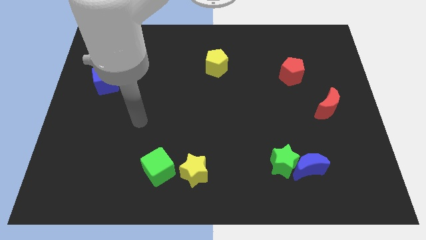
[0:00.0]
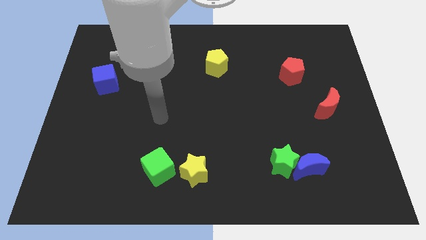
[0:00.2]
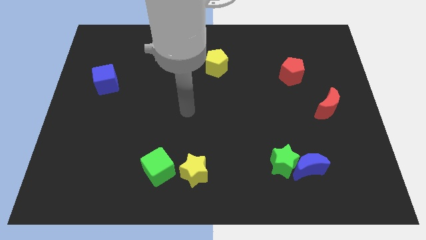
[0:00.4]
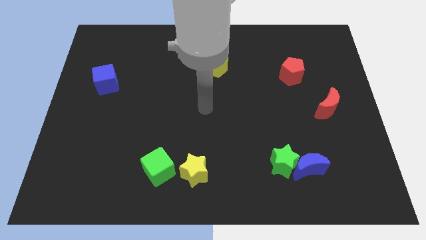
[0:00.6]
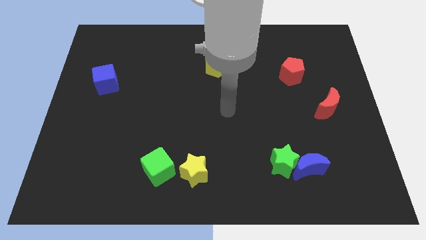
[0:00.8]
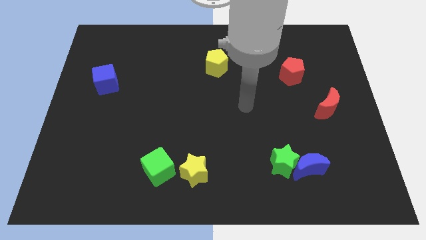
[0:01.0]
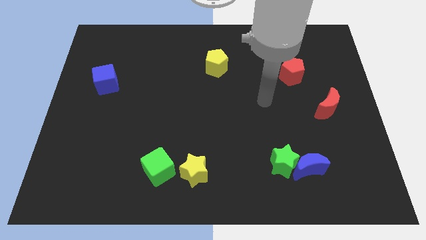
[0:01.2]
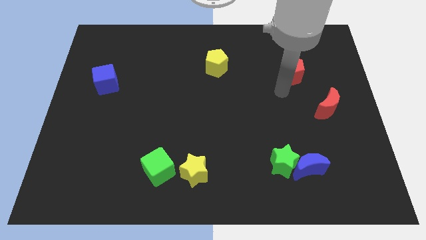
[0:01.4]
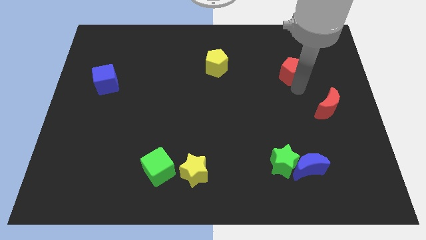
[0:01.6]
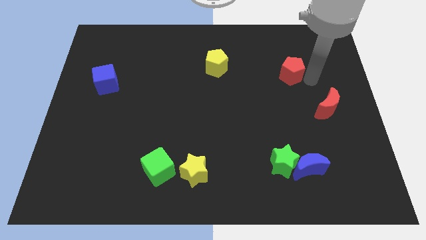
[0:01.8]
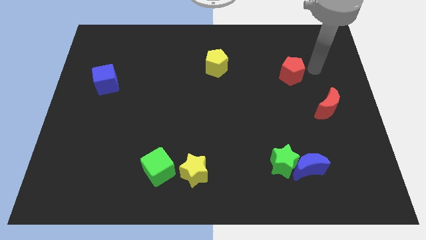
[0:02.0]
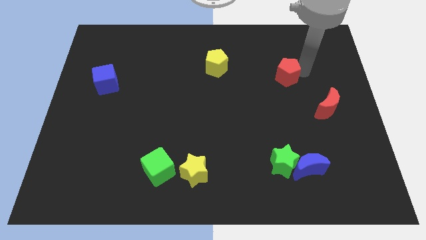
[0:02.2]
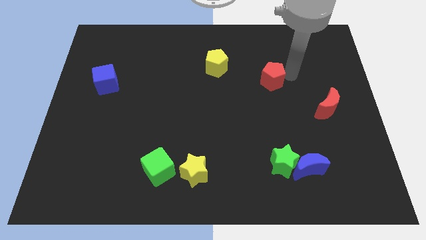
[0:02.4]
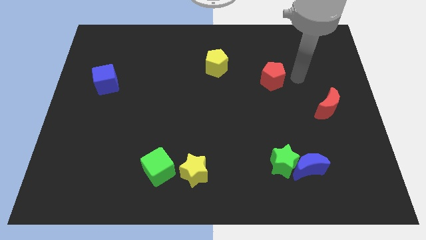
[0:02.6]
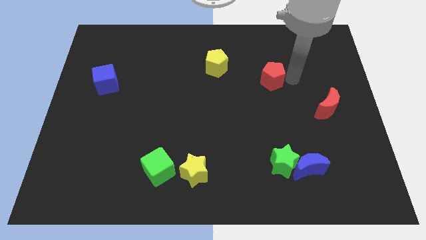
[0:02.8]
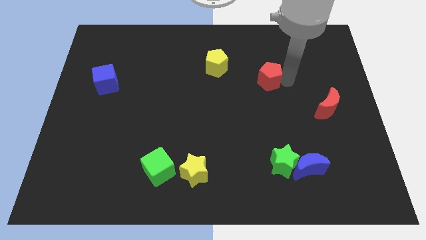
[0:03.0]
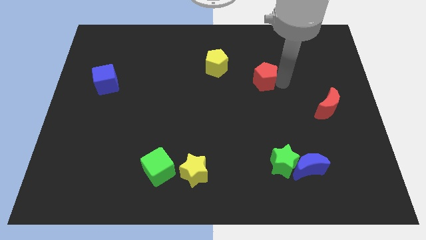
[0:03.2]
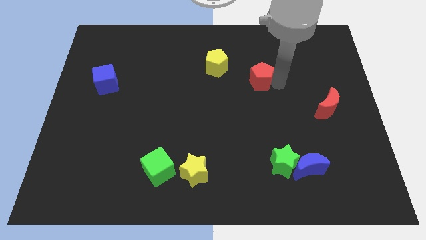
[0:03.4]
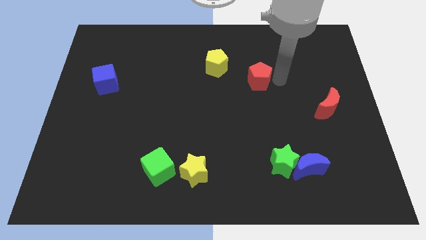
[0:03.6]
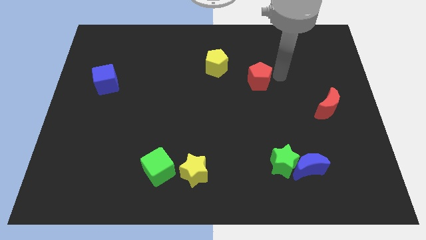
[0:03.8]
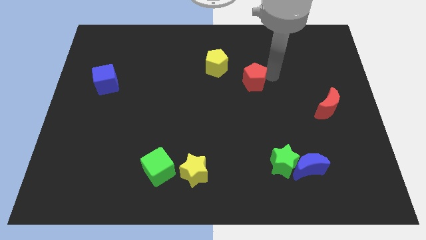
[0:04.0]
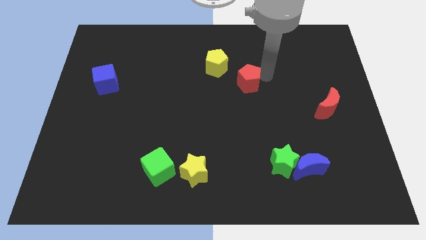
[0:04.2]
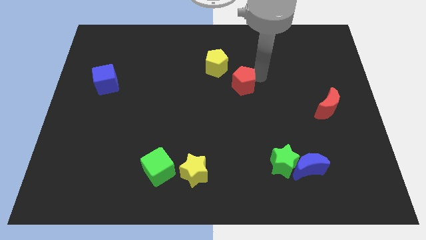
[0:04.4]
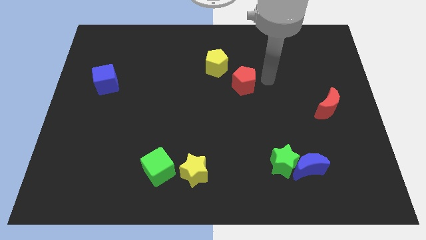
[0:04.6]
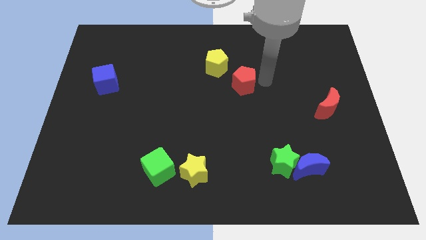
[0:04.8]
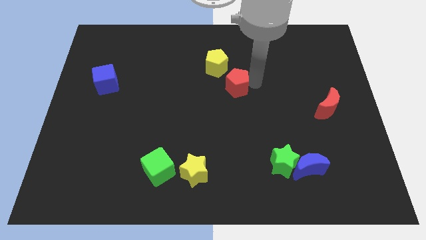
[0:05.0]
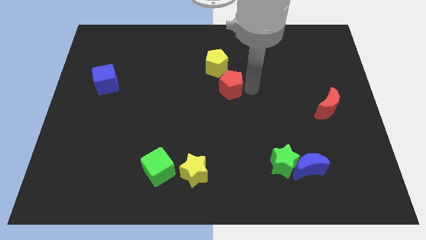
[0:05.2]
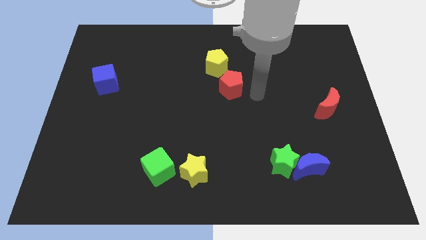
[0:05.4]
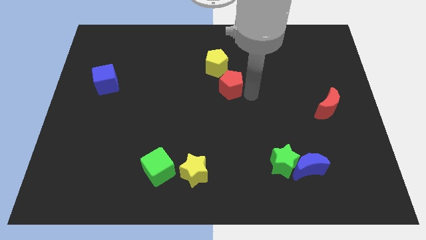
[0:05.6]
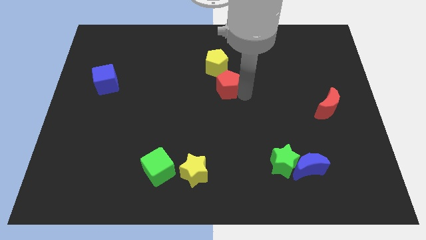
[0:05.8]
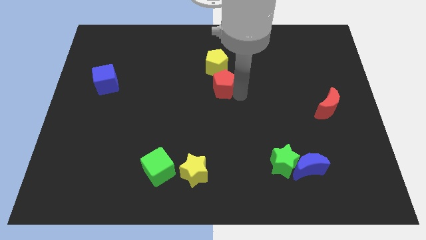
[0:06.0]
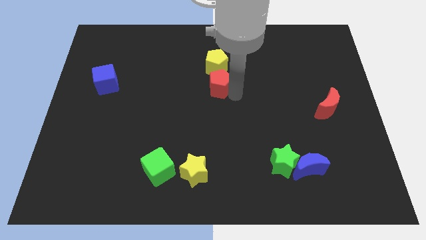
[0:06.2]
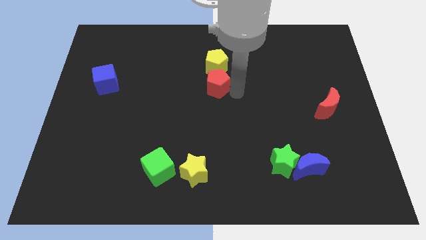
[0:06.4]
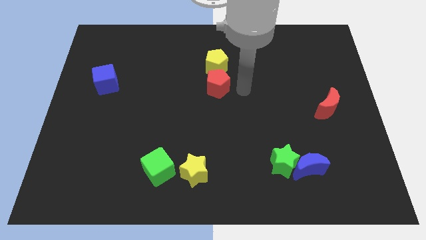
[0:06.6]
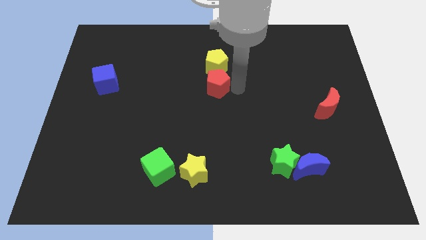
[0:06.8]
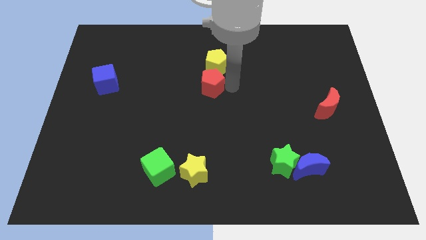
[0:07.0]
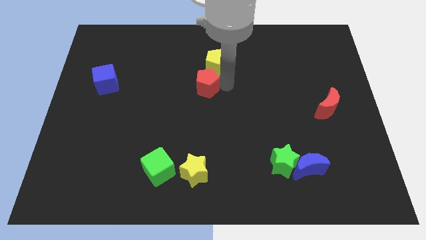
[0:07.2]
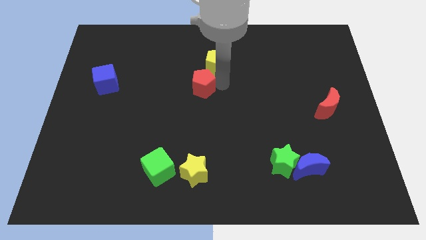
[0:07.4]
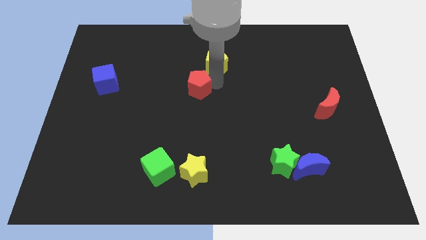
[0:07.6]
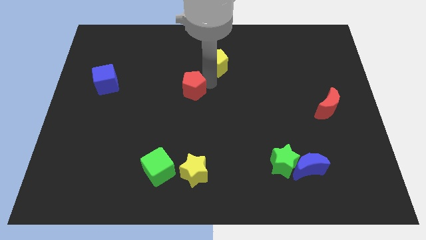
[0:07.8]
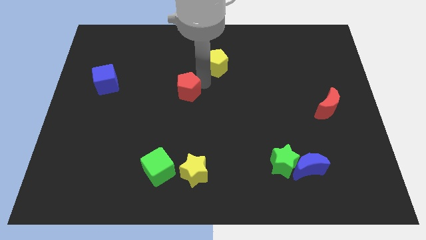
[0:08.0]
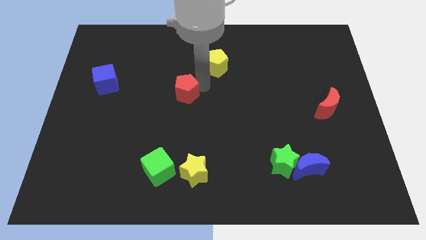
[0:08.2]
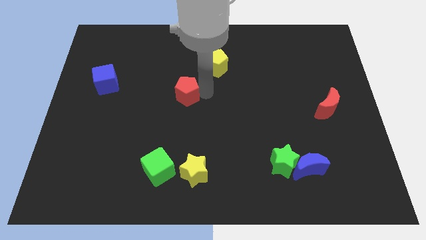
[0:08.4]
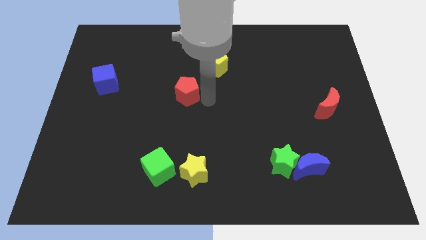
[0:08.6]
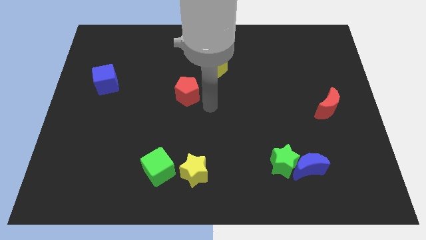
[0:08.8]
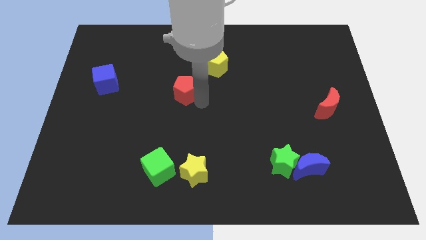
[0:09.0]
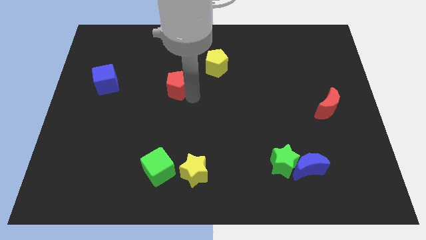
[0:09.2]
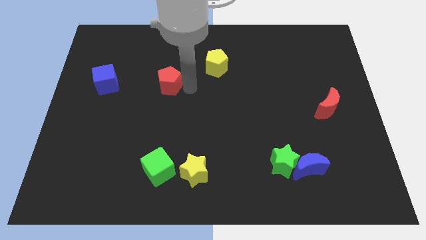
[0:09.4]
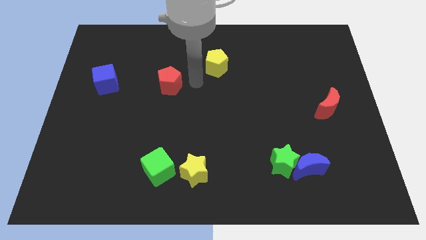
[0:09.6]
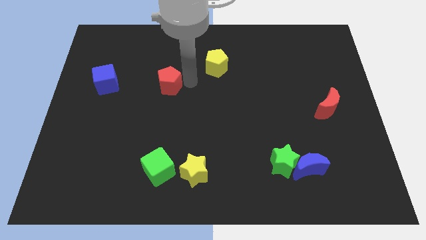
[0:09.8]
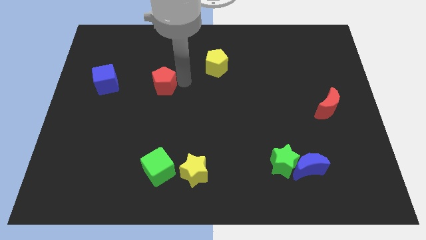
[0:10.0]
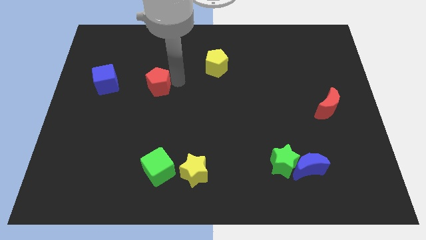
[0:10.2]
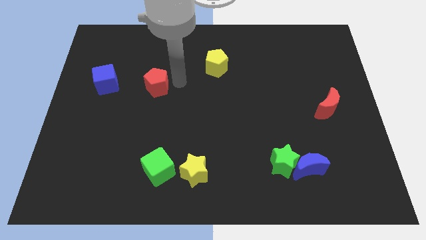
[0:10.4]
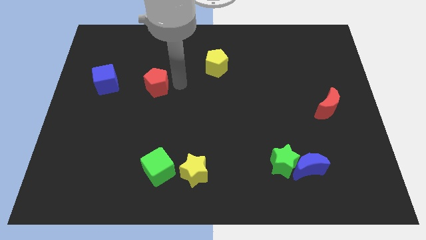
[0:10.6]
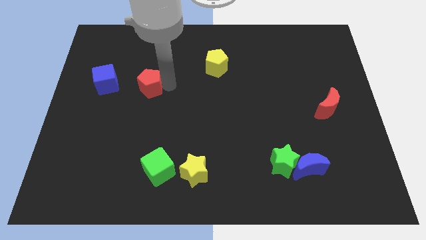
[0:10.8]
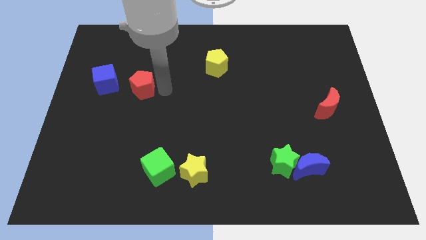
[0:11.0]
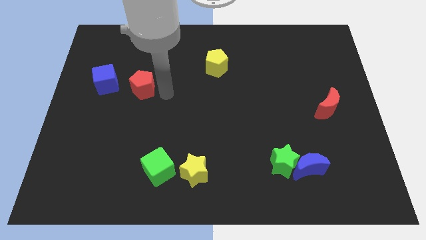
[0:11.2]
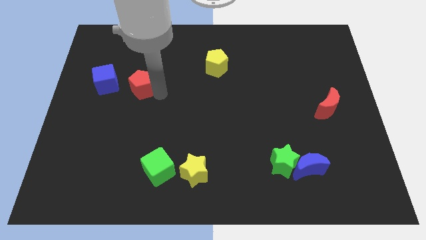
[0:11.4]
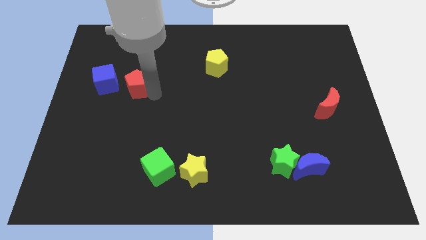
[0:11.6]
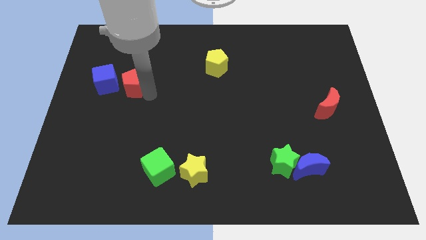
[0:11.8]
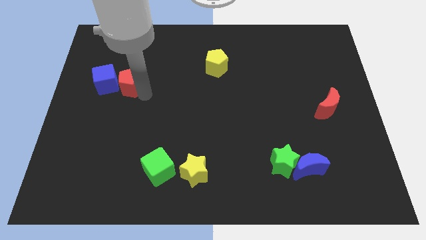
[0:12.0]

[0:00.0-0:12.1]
push the red pentagon to the blue cube
